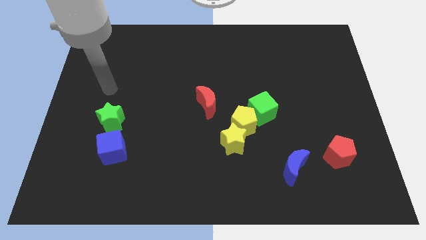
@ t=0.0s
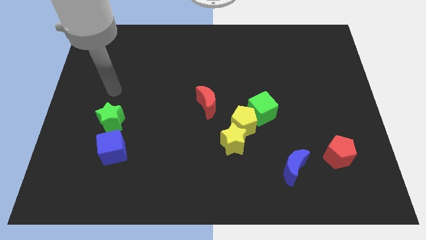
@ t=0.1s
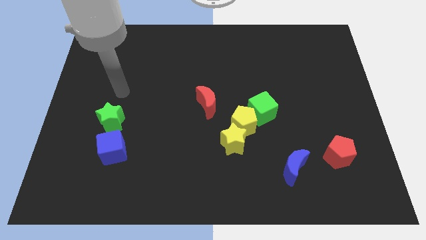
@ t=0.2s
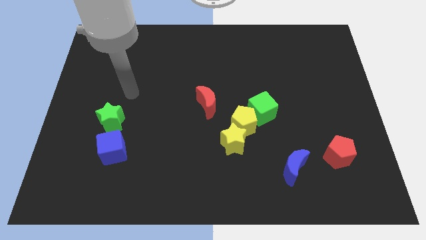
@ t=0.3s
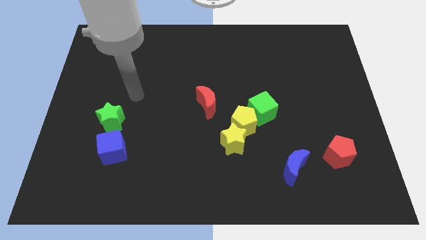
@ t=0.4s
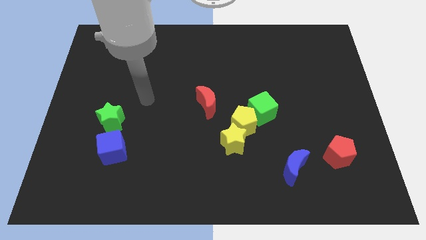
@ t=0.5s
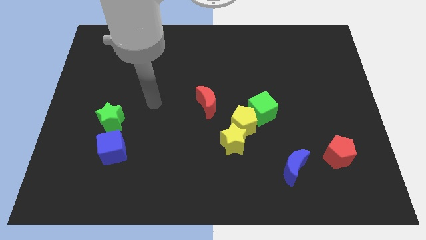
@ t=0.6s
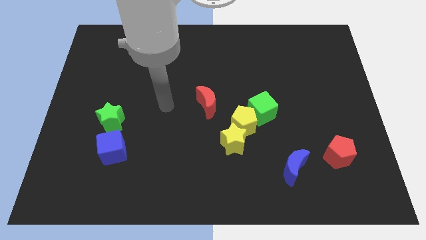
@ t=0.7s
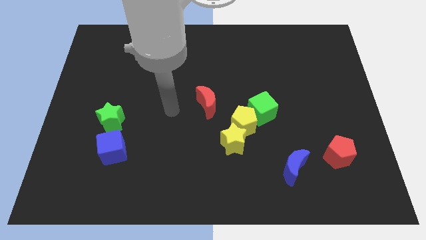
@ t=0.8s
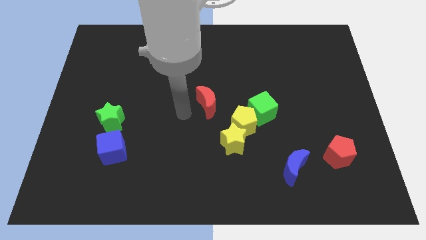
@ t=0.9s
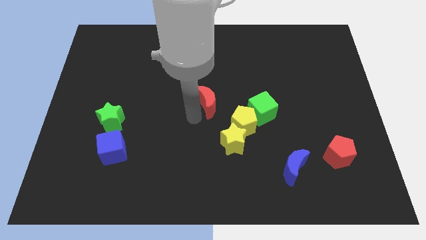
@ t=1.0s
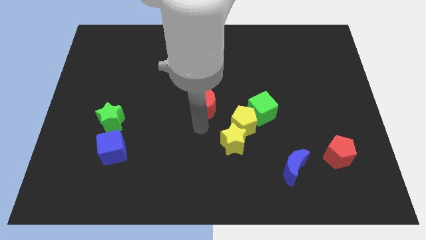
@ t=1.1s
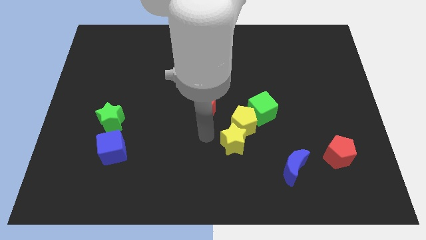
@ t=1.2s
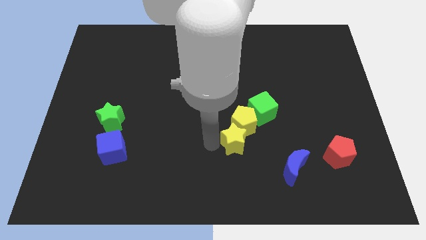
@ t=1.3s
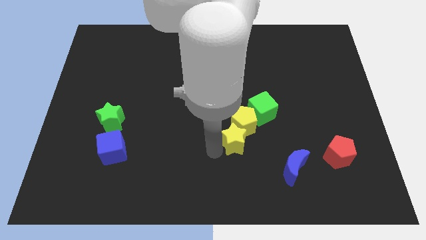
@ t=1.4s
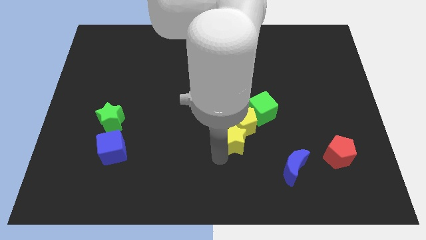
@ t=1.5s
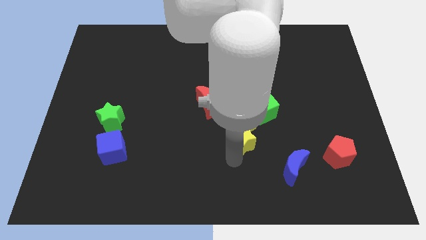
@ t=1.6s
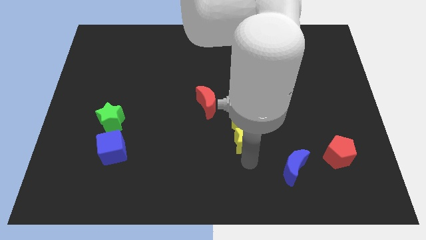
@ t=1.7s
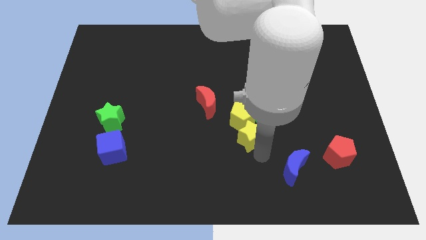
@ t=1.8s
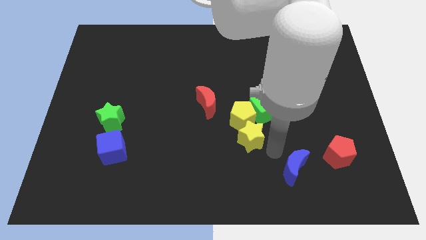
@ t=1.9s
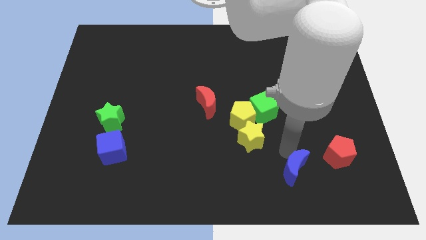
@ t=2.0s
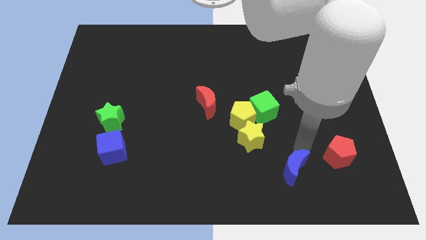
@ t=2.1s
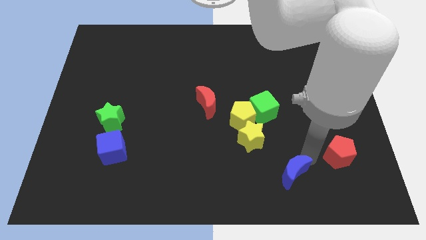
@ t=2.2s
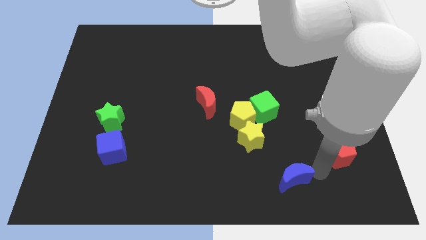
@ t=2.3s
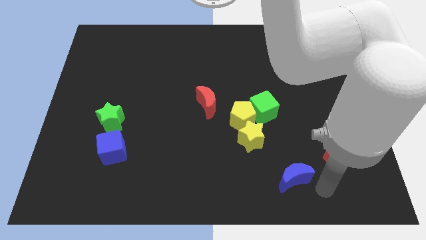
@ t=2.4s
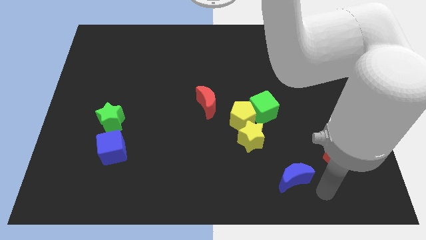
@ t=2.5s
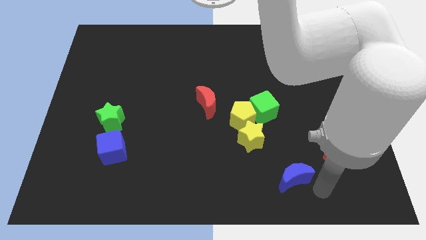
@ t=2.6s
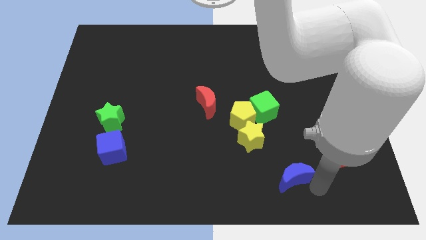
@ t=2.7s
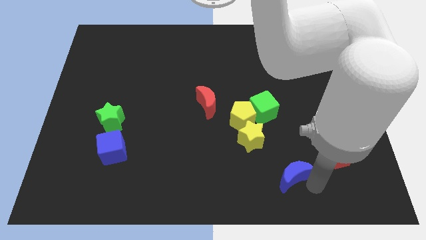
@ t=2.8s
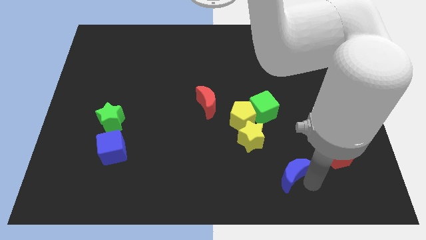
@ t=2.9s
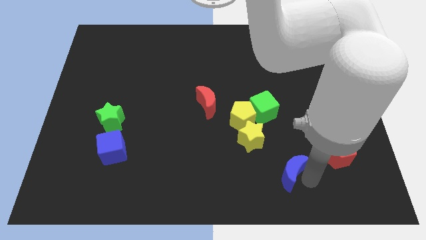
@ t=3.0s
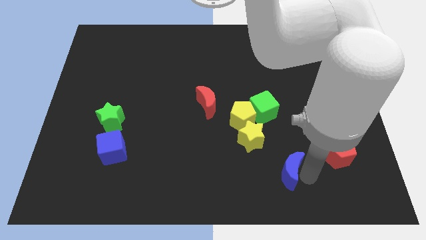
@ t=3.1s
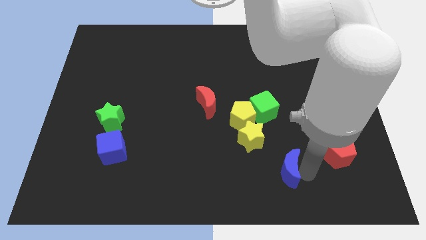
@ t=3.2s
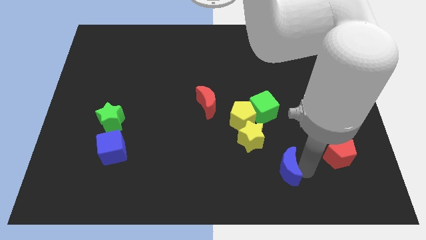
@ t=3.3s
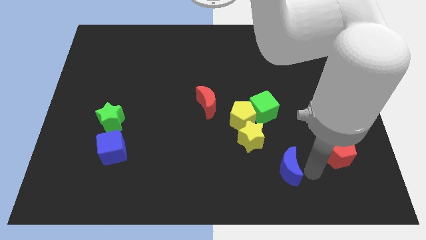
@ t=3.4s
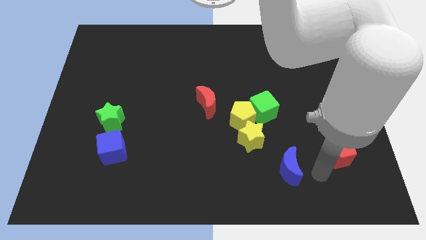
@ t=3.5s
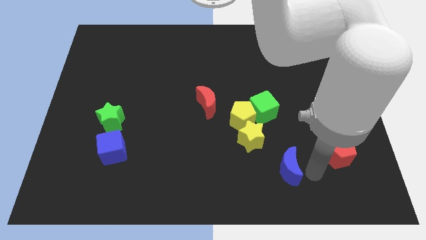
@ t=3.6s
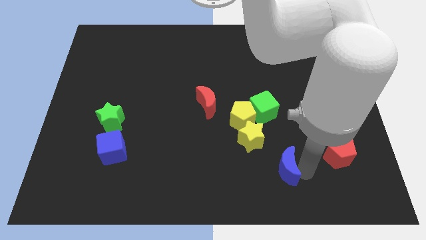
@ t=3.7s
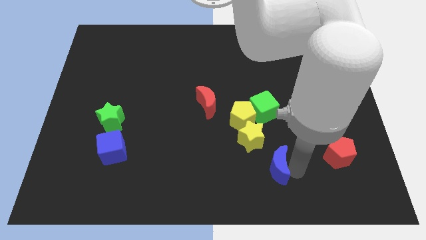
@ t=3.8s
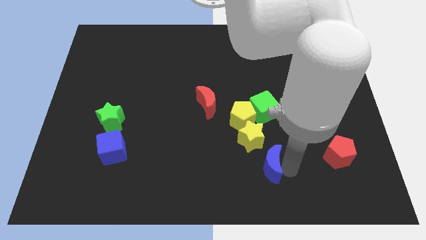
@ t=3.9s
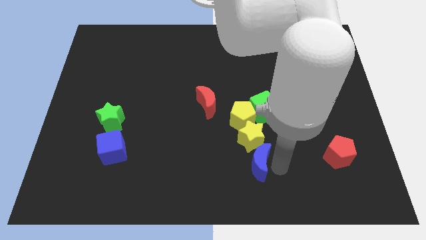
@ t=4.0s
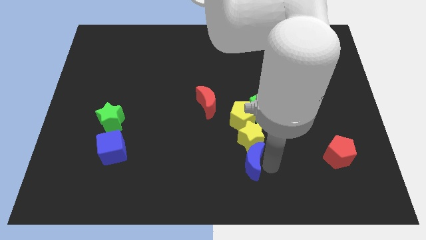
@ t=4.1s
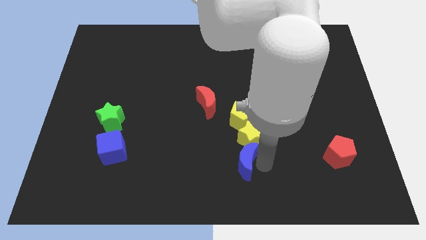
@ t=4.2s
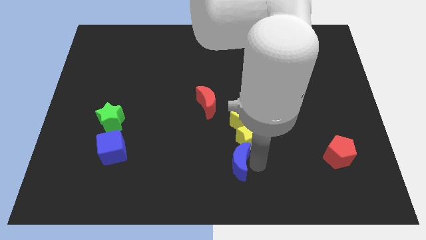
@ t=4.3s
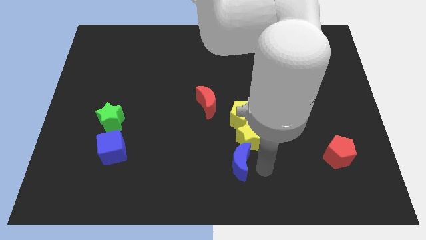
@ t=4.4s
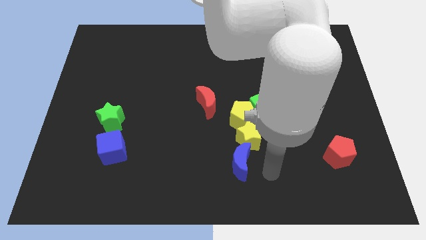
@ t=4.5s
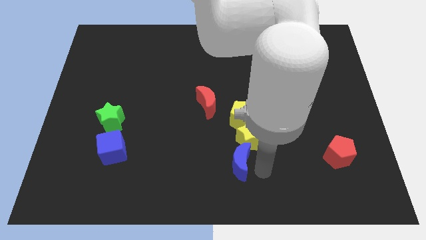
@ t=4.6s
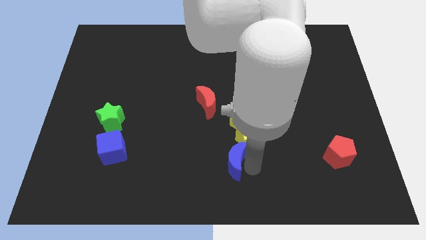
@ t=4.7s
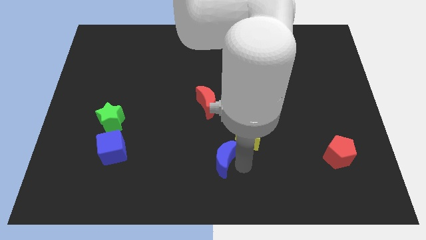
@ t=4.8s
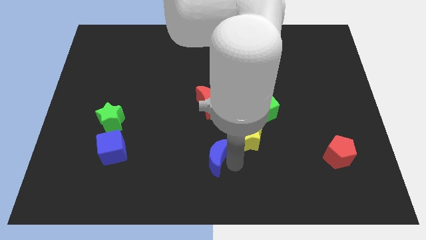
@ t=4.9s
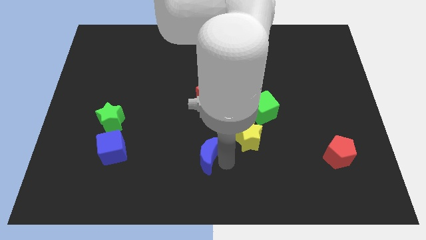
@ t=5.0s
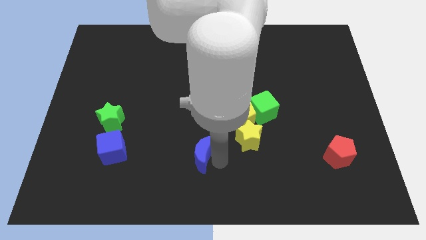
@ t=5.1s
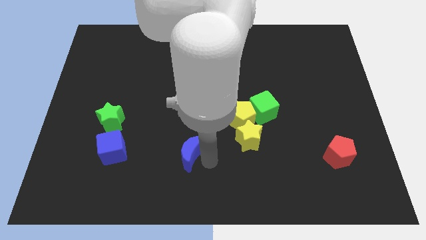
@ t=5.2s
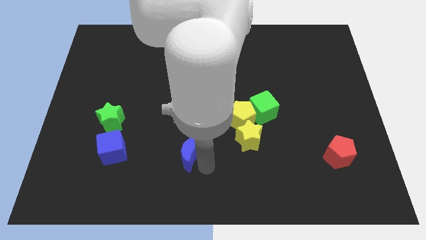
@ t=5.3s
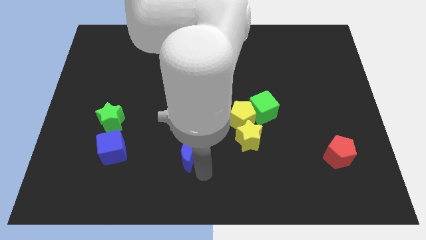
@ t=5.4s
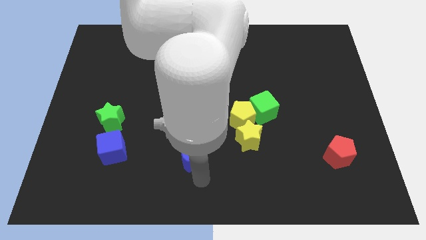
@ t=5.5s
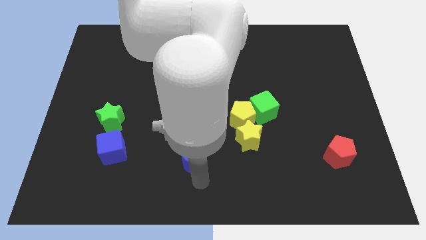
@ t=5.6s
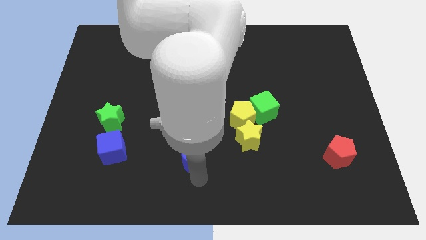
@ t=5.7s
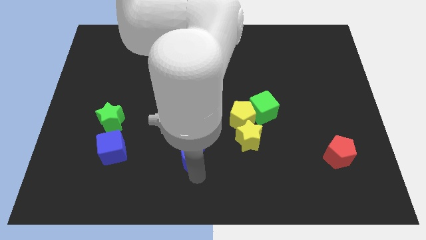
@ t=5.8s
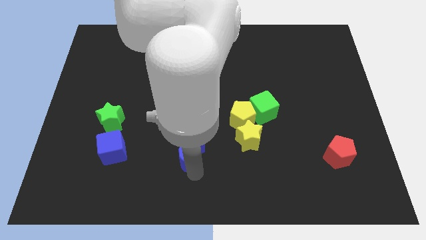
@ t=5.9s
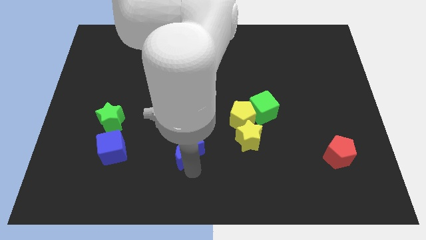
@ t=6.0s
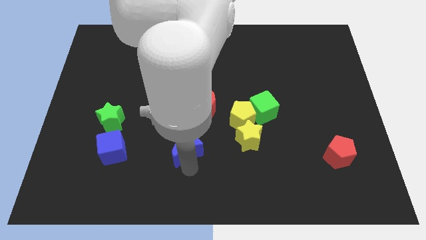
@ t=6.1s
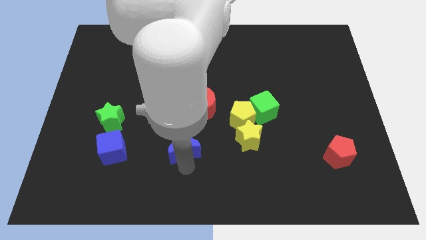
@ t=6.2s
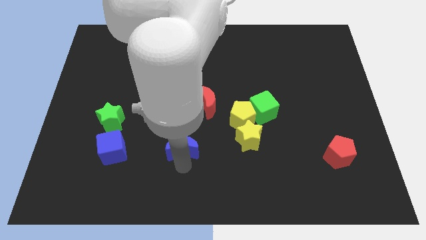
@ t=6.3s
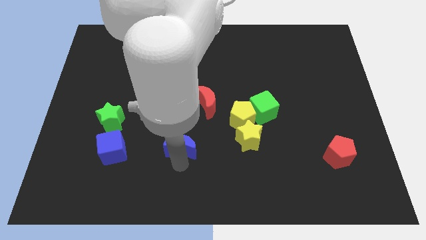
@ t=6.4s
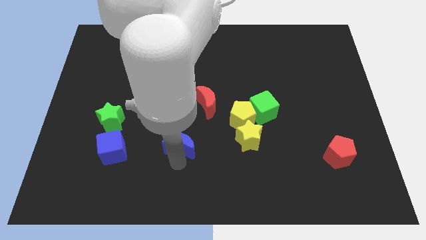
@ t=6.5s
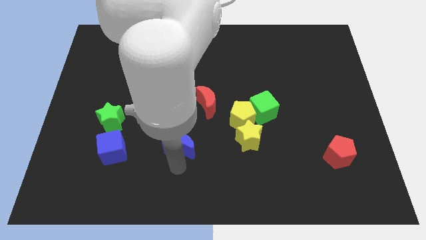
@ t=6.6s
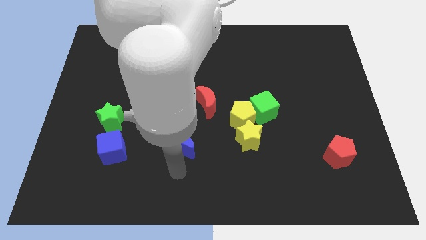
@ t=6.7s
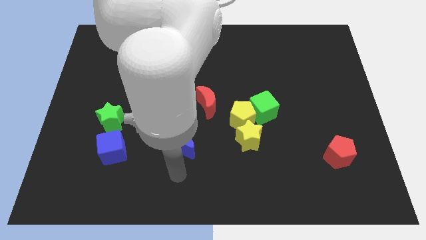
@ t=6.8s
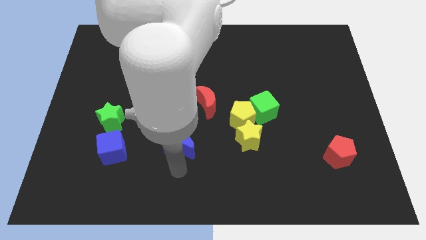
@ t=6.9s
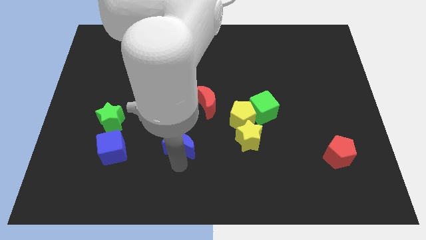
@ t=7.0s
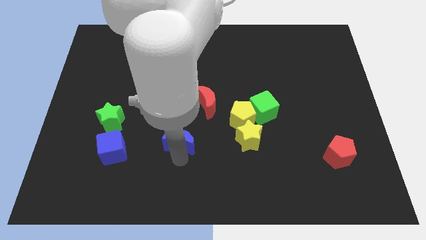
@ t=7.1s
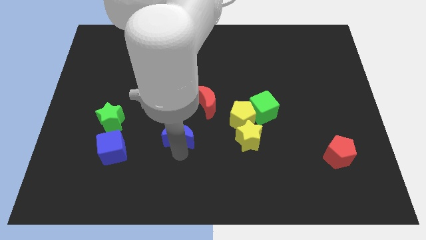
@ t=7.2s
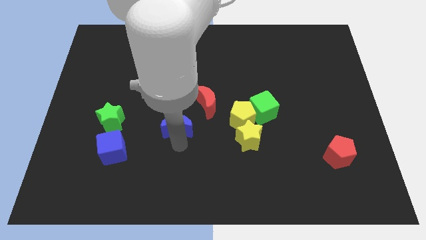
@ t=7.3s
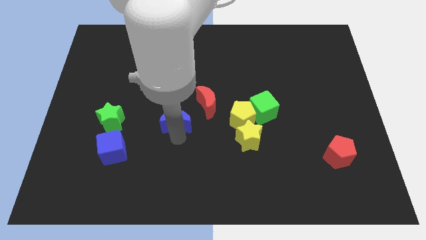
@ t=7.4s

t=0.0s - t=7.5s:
slide the blue moon upwards and then left

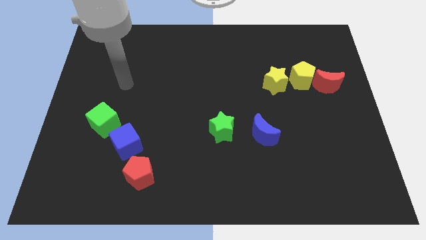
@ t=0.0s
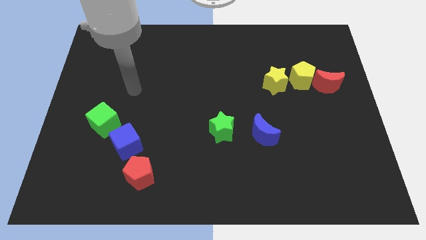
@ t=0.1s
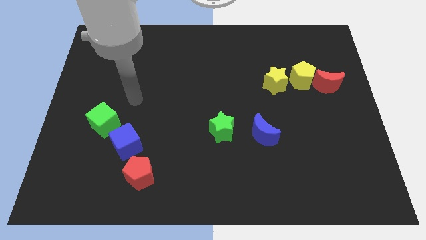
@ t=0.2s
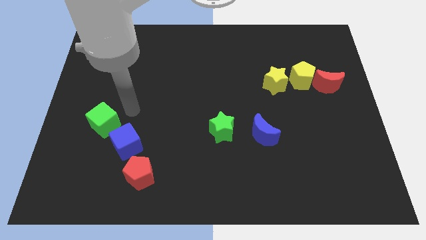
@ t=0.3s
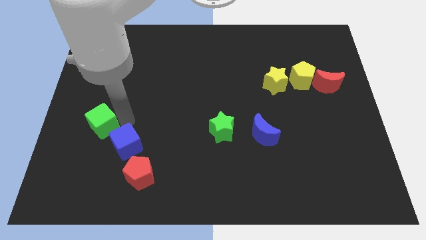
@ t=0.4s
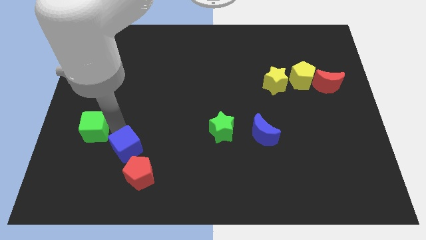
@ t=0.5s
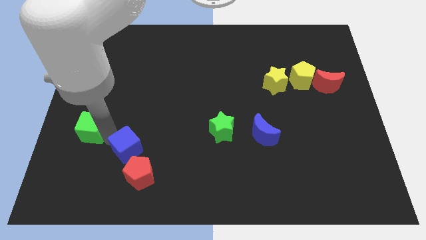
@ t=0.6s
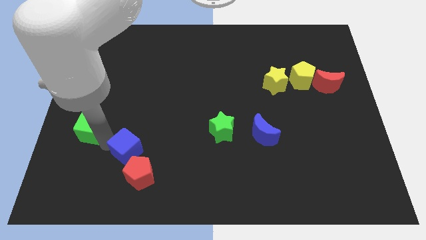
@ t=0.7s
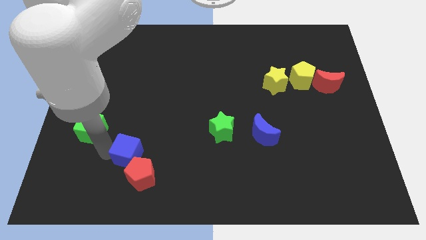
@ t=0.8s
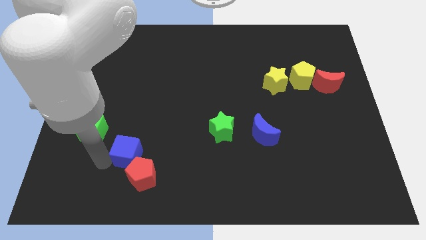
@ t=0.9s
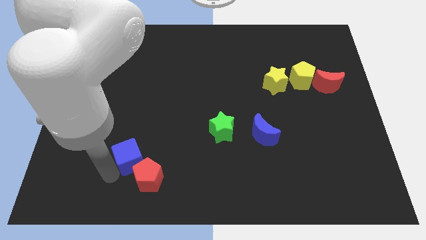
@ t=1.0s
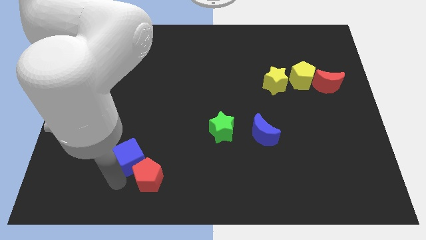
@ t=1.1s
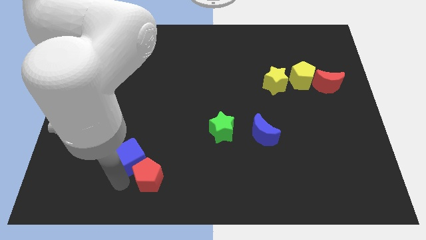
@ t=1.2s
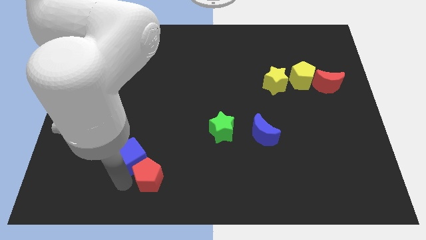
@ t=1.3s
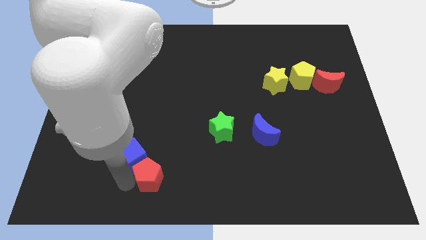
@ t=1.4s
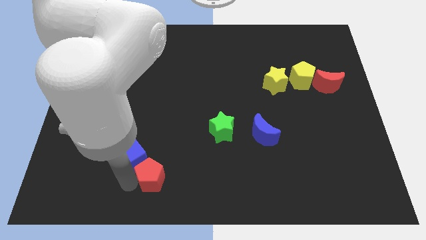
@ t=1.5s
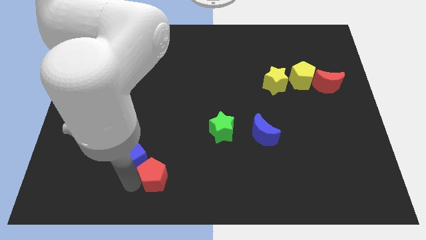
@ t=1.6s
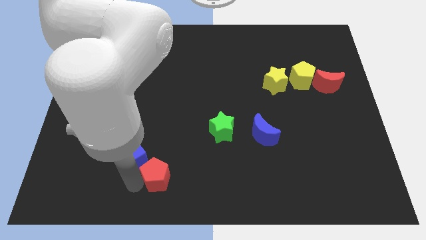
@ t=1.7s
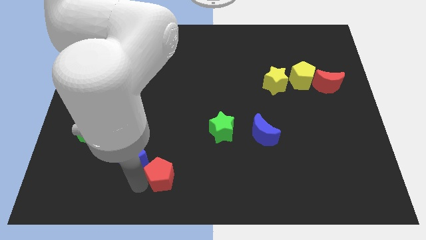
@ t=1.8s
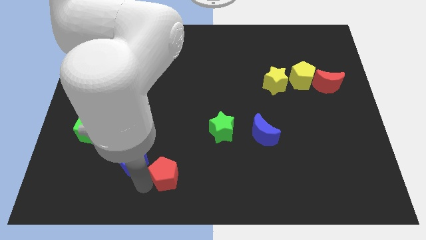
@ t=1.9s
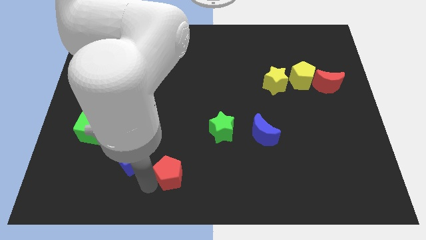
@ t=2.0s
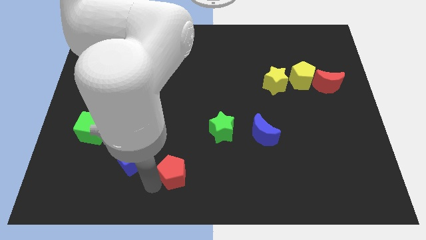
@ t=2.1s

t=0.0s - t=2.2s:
slightly move the red pentagon to the right
